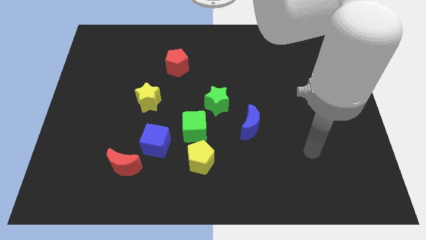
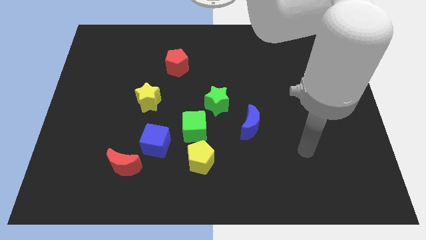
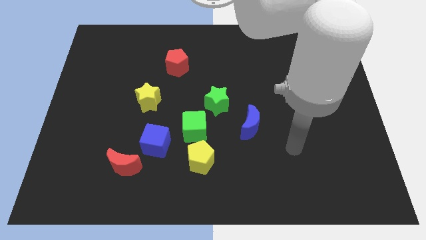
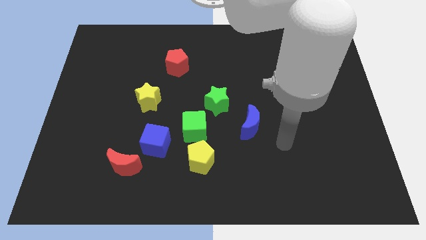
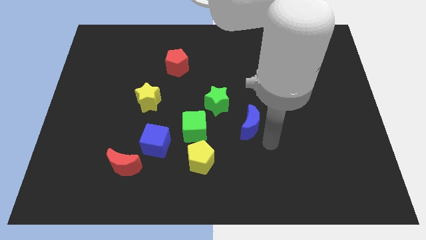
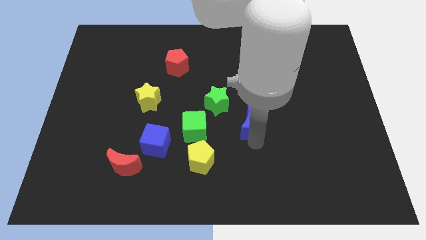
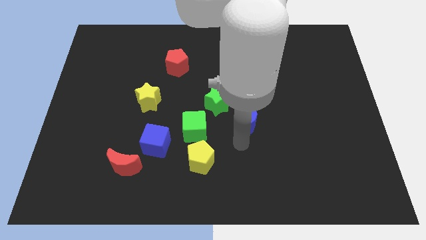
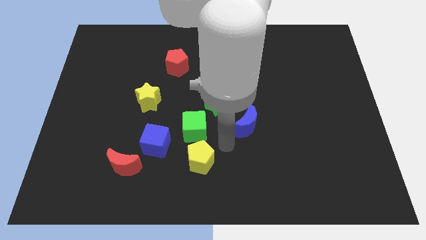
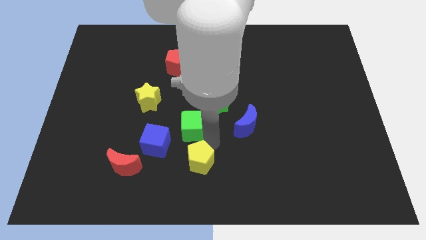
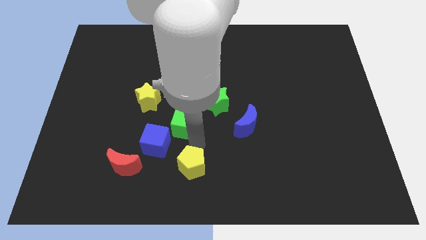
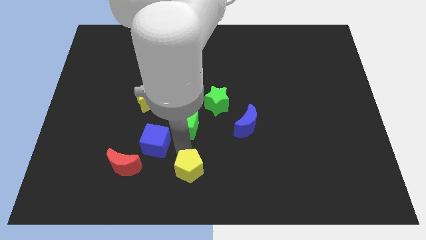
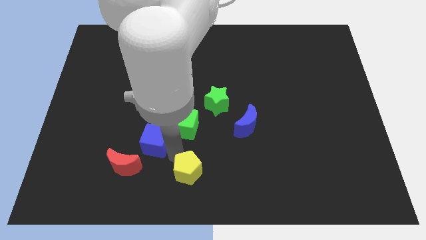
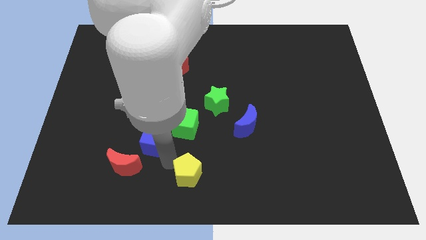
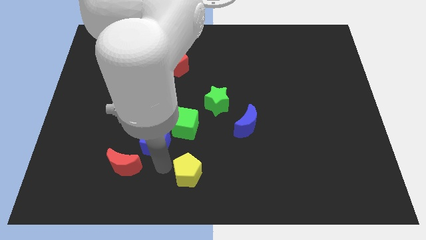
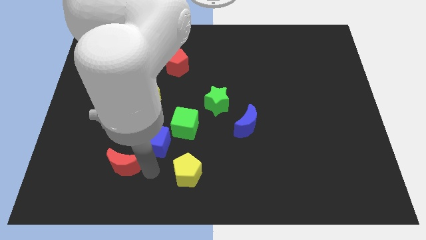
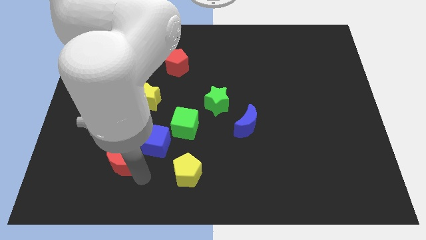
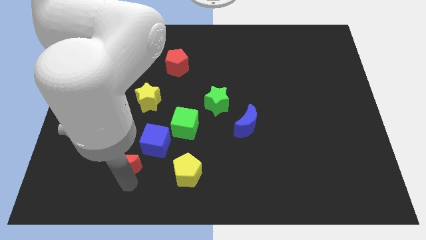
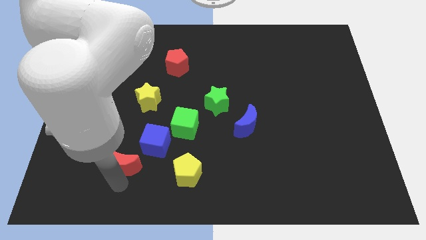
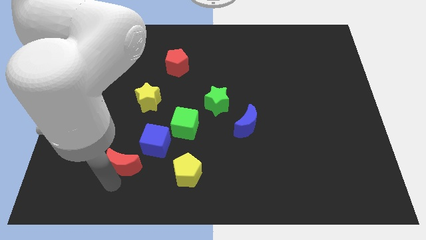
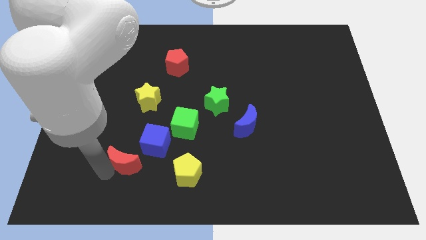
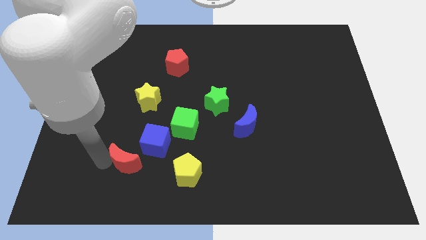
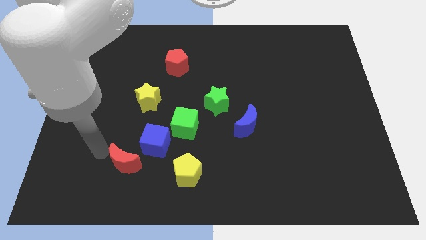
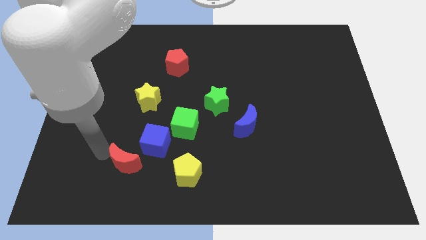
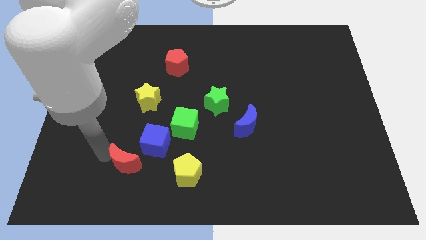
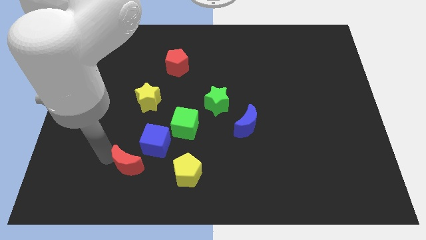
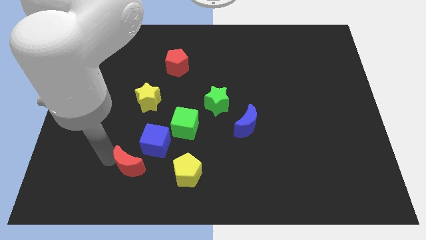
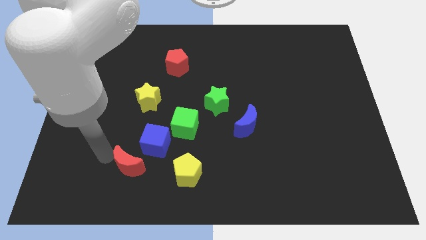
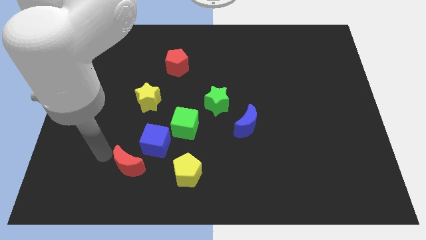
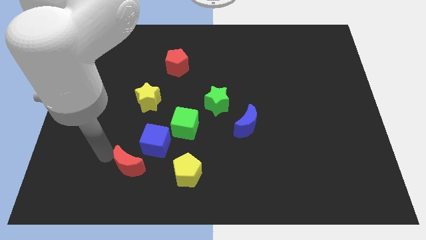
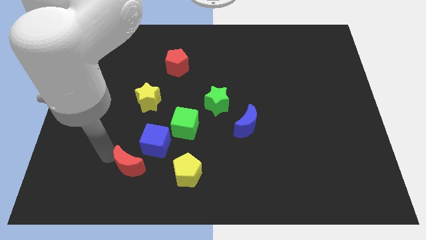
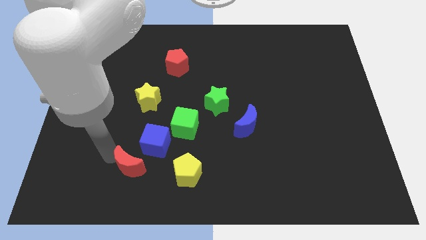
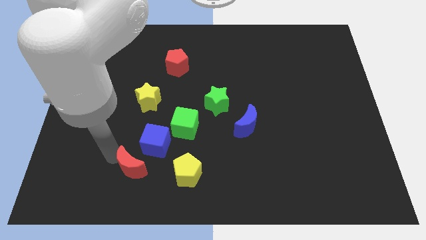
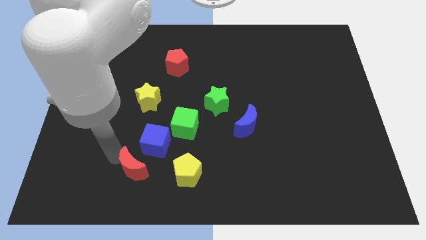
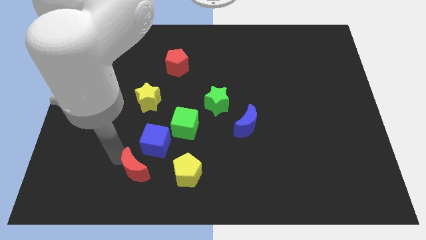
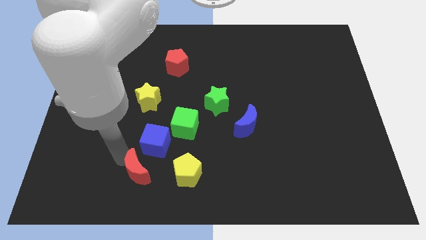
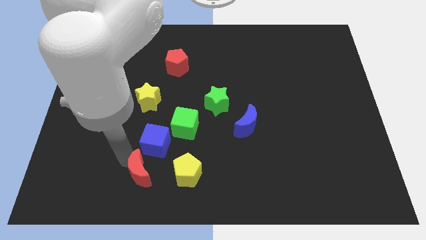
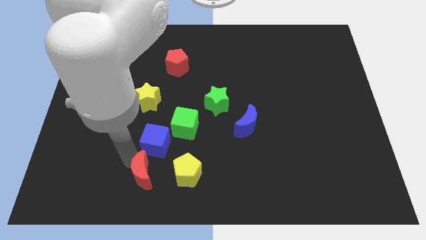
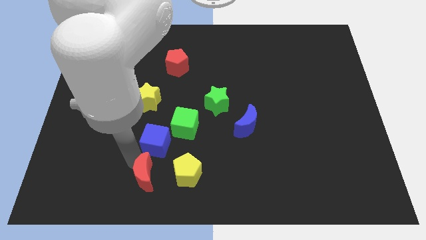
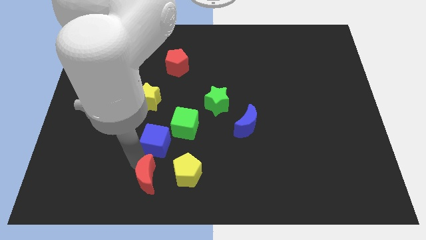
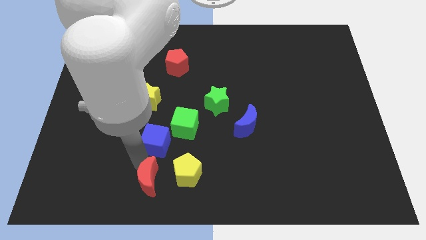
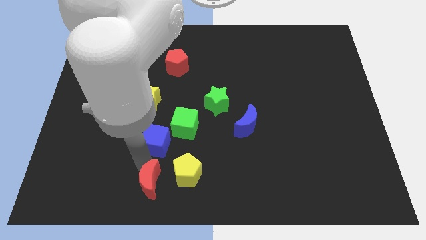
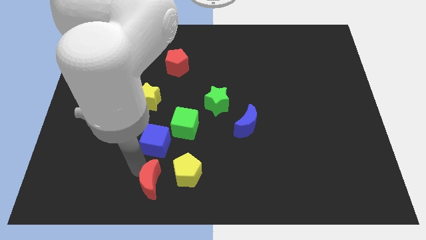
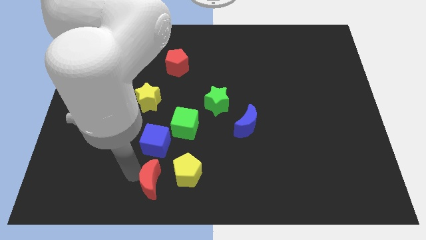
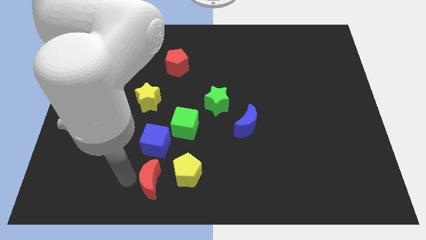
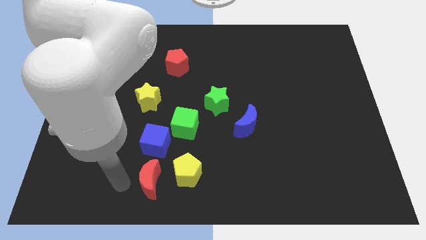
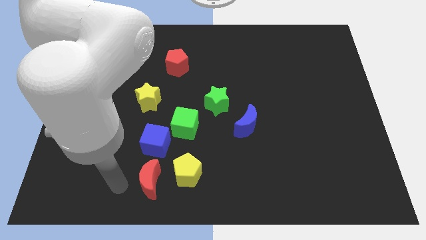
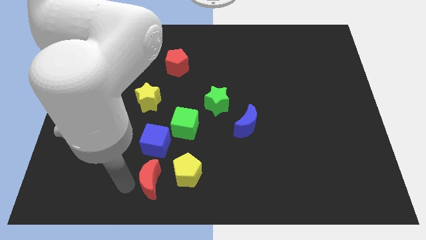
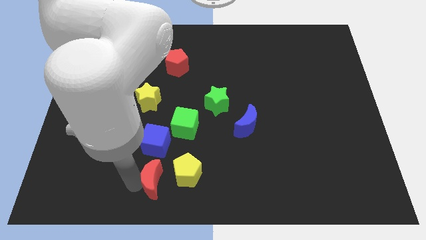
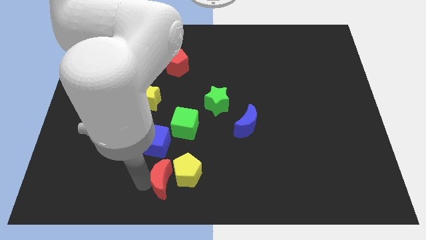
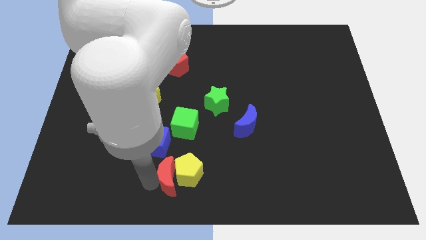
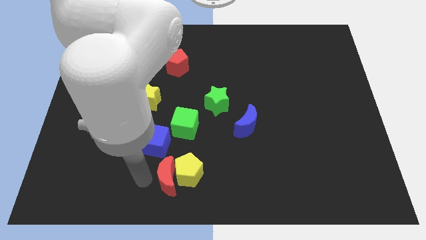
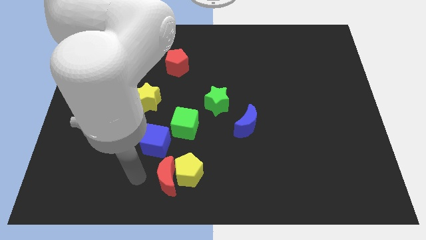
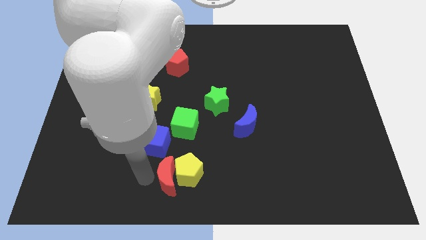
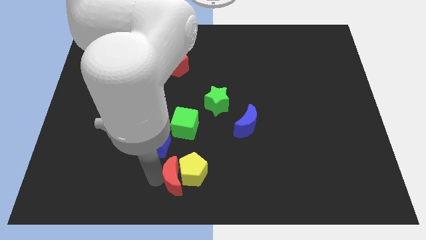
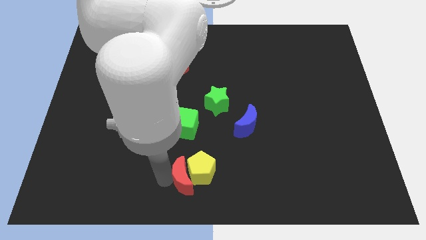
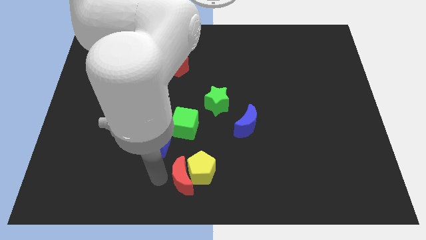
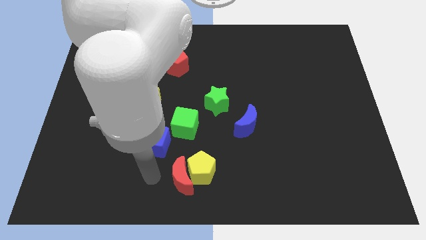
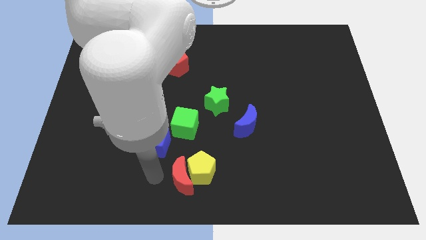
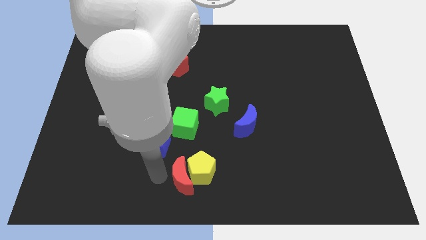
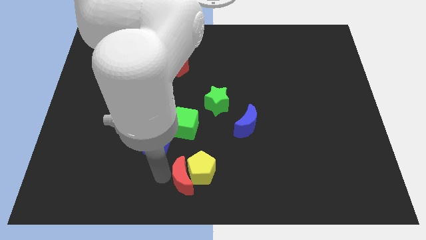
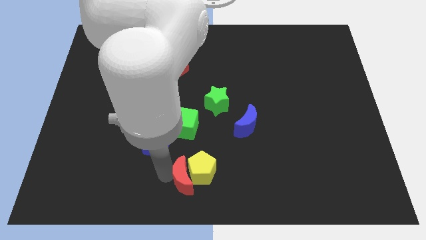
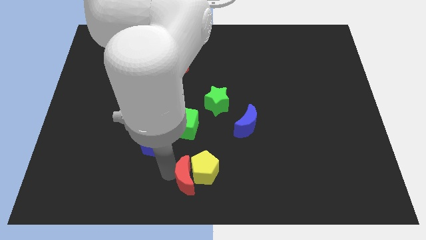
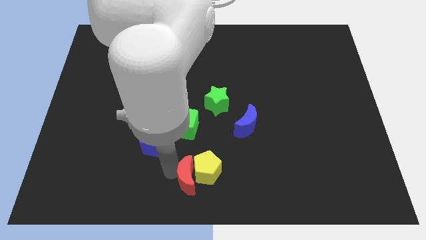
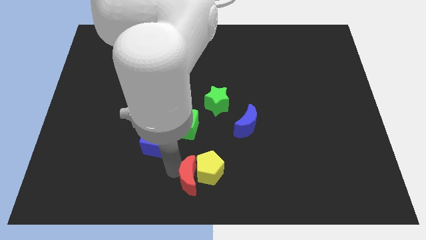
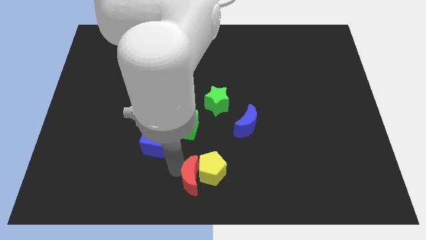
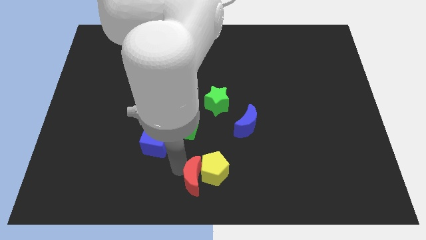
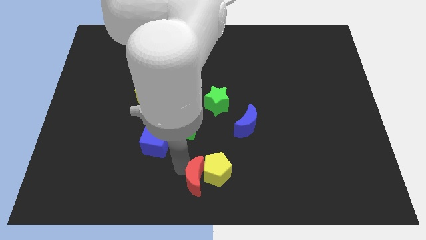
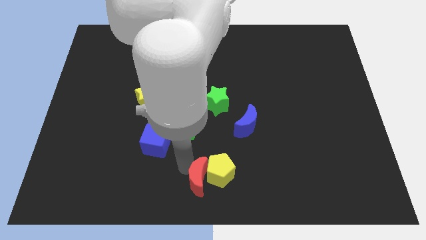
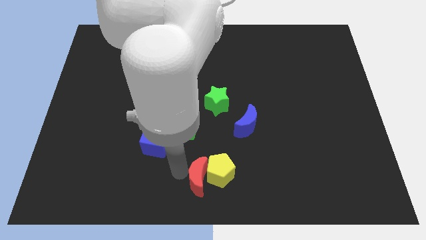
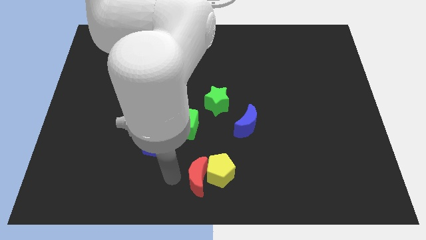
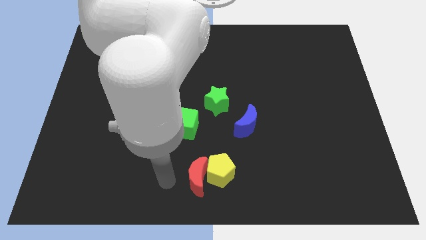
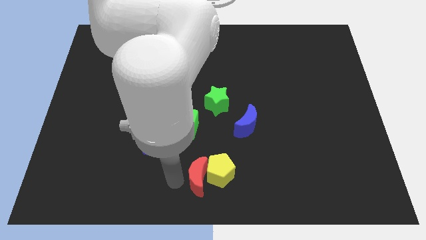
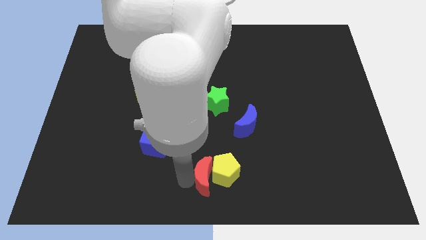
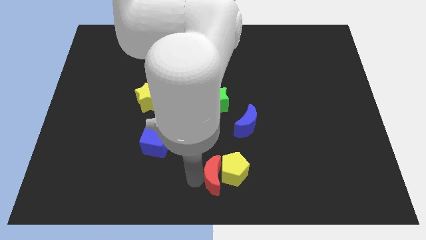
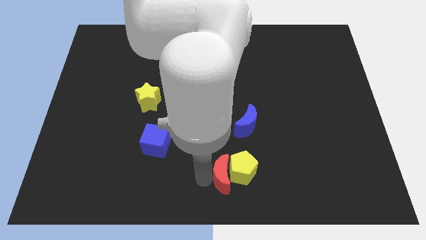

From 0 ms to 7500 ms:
slide the red moon right

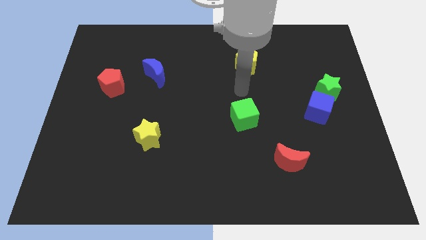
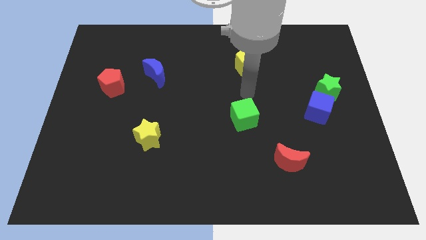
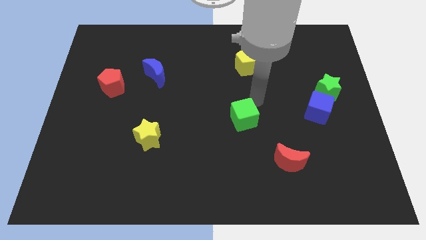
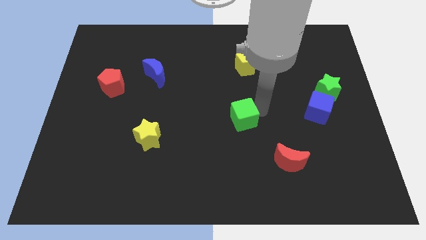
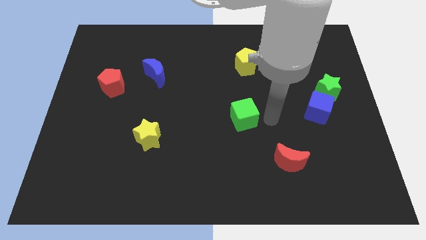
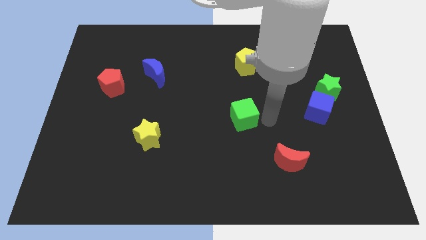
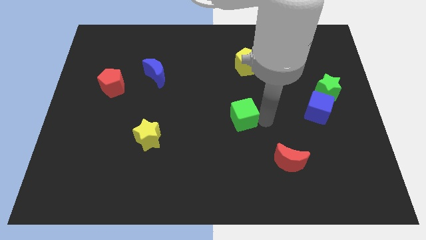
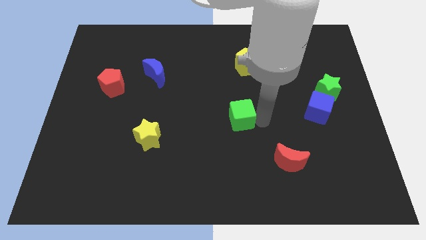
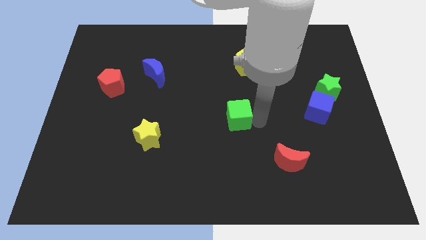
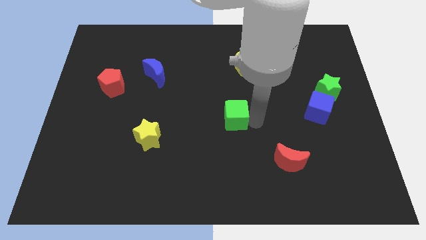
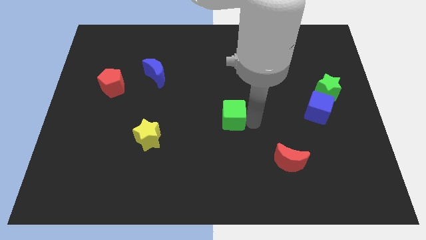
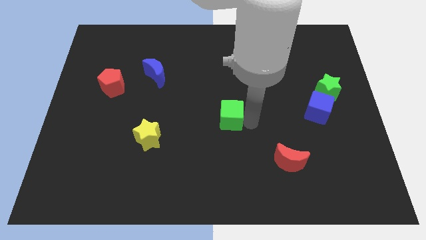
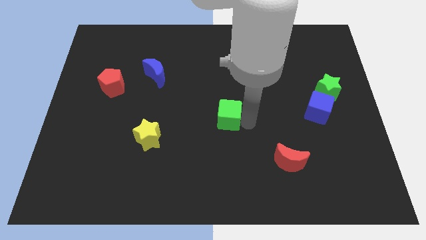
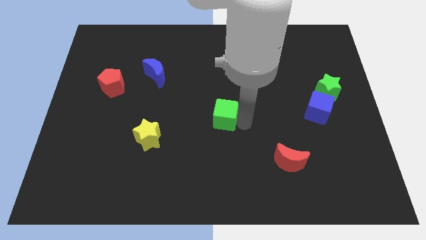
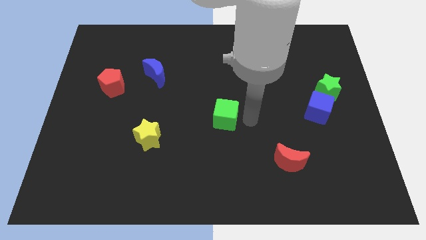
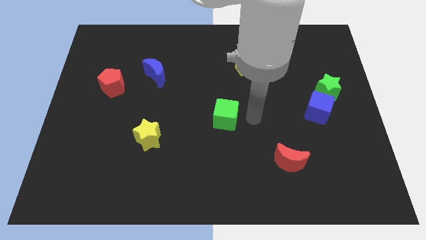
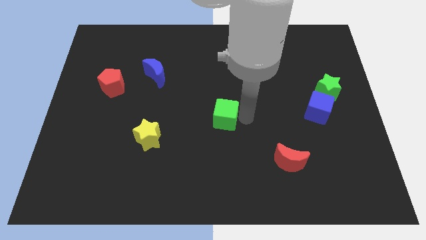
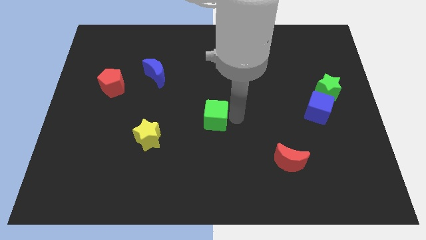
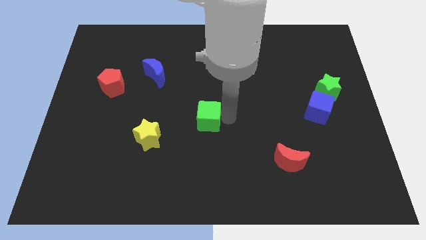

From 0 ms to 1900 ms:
slightly move the green cube to the left
